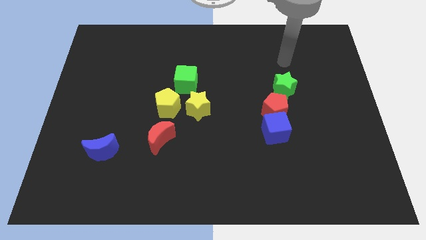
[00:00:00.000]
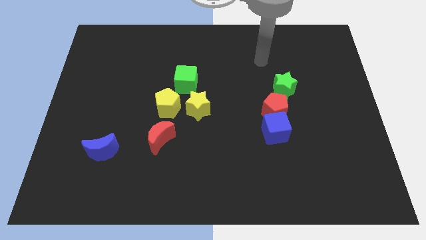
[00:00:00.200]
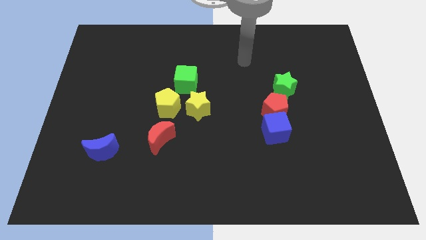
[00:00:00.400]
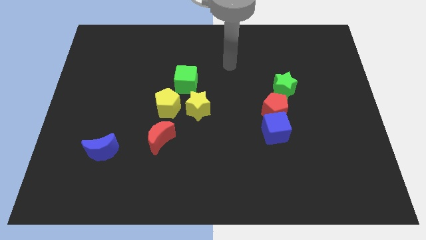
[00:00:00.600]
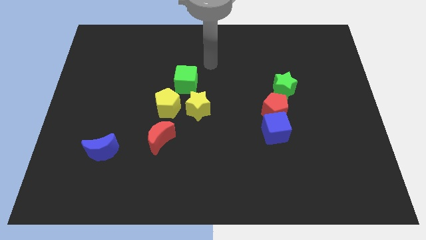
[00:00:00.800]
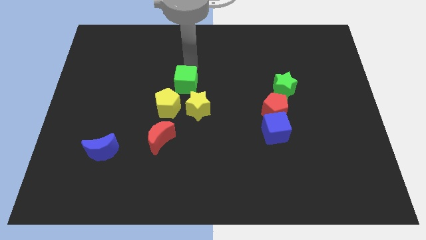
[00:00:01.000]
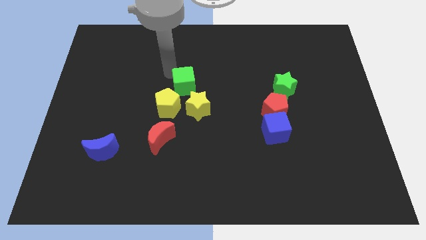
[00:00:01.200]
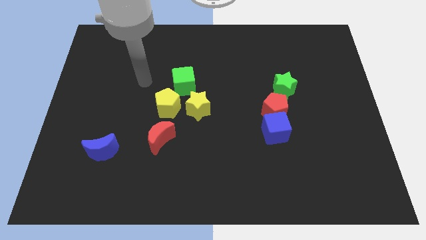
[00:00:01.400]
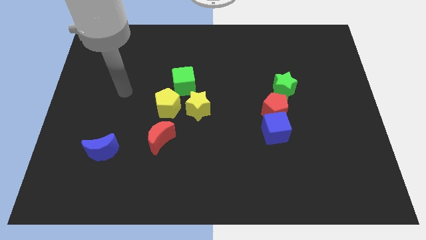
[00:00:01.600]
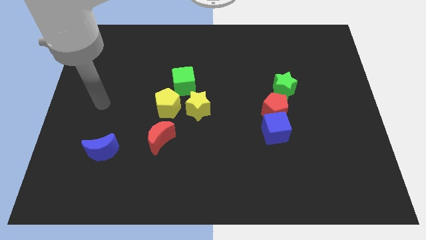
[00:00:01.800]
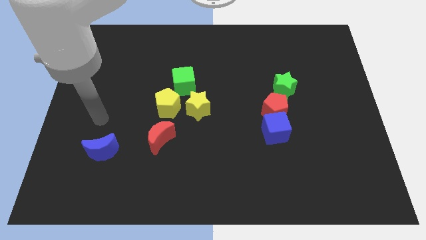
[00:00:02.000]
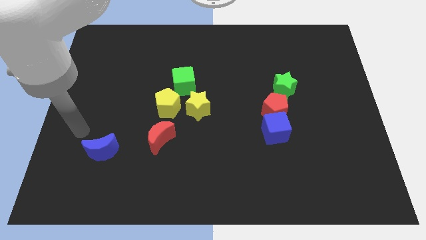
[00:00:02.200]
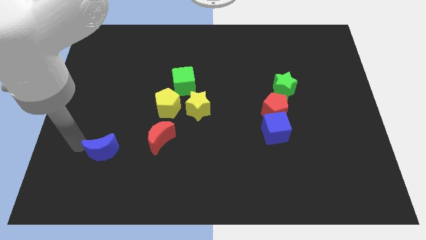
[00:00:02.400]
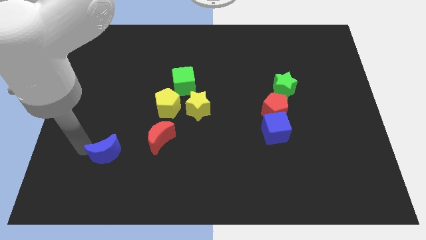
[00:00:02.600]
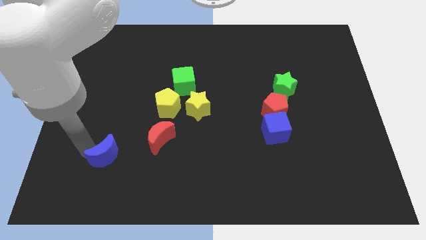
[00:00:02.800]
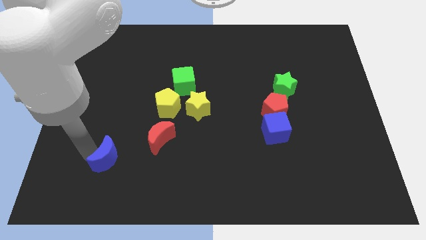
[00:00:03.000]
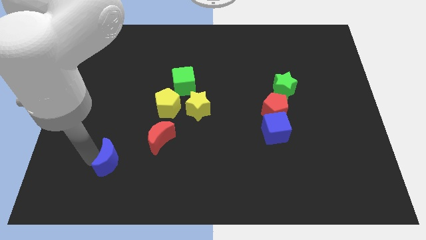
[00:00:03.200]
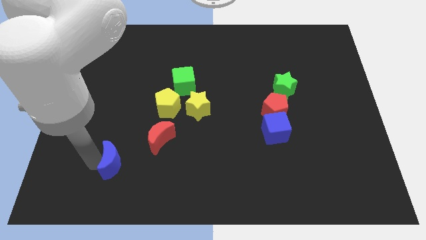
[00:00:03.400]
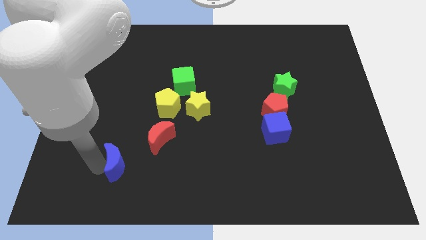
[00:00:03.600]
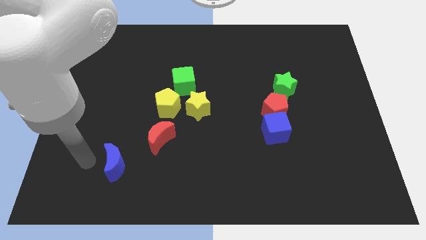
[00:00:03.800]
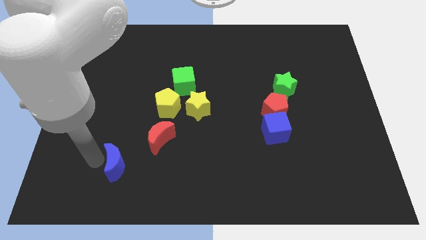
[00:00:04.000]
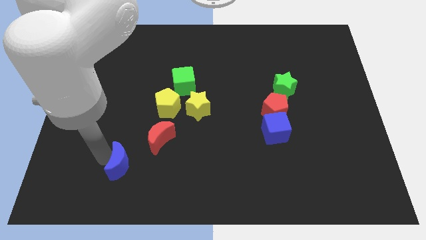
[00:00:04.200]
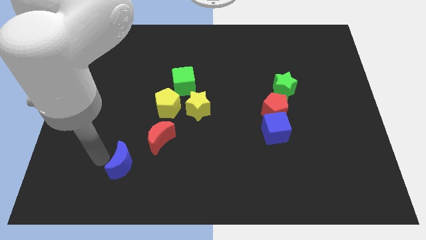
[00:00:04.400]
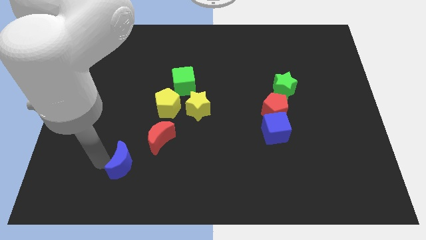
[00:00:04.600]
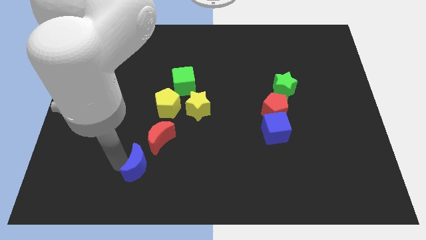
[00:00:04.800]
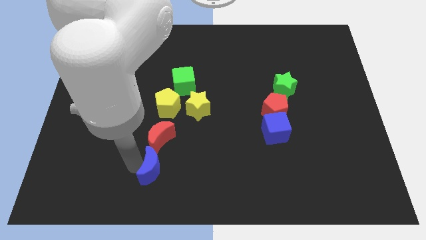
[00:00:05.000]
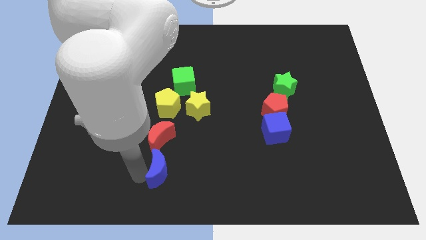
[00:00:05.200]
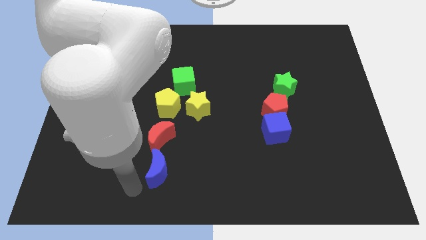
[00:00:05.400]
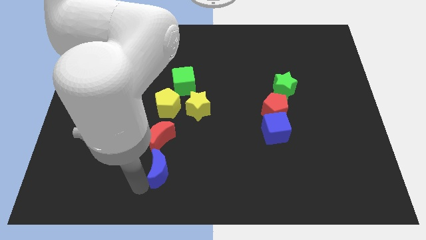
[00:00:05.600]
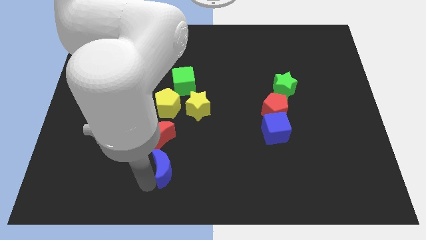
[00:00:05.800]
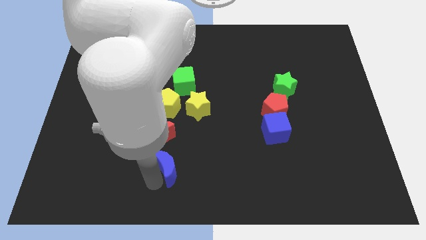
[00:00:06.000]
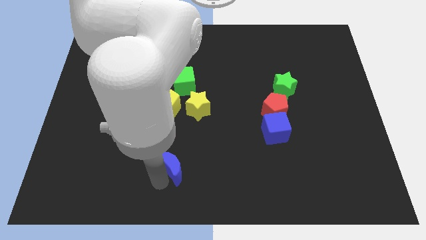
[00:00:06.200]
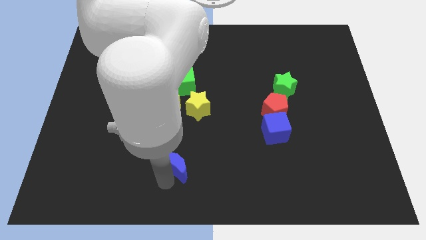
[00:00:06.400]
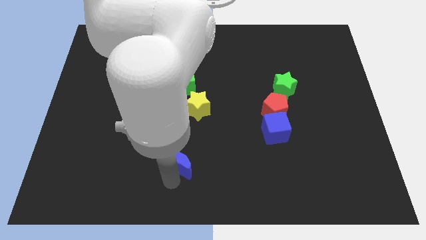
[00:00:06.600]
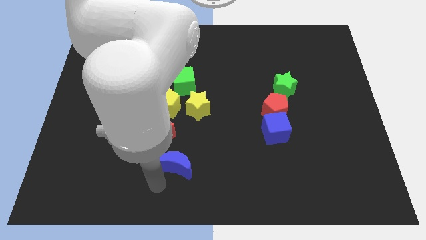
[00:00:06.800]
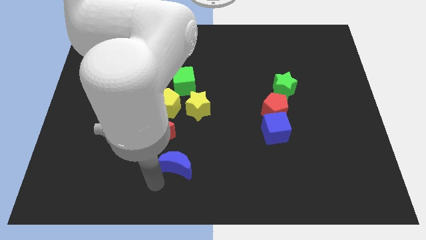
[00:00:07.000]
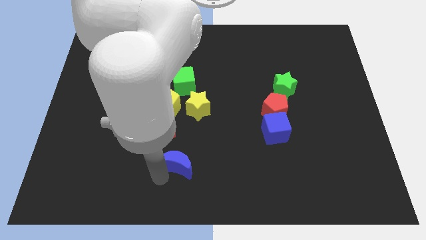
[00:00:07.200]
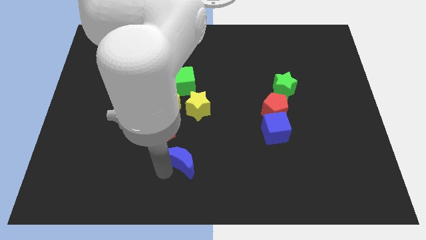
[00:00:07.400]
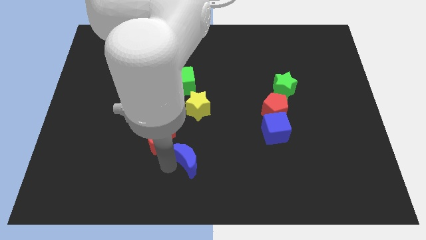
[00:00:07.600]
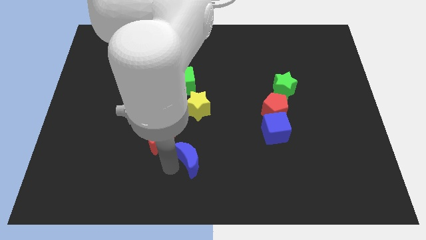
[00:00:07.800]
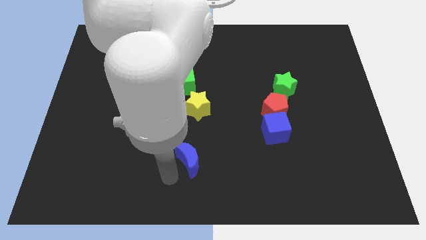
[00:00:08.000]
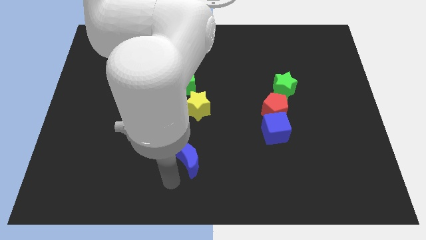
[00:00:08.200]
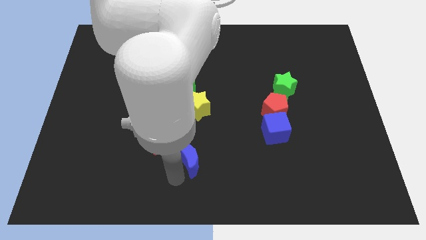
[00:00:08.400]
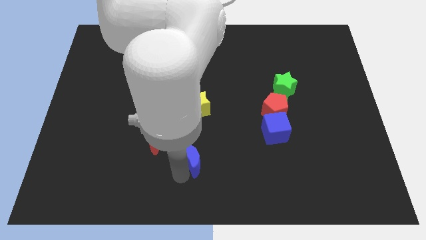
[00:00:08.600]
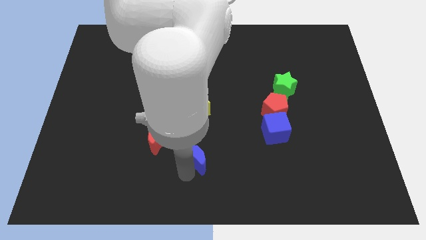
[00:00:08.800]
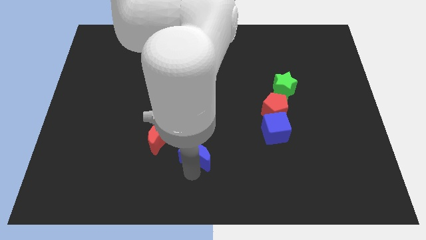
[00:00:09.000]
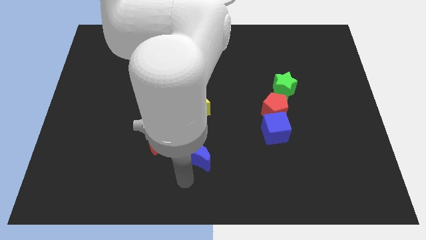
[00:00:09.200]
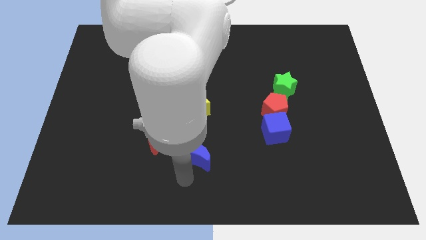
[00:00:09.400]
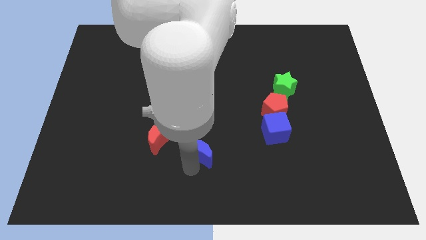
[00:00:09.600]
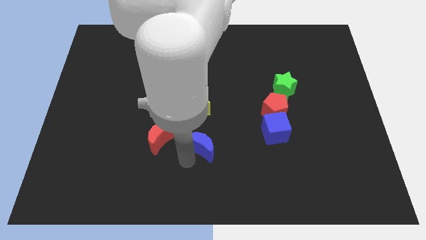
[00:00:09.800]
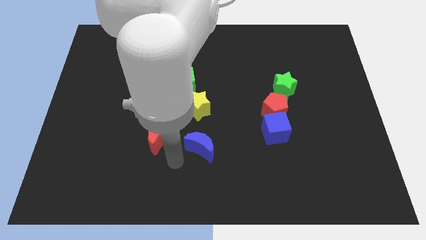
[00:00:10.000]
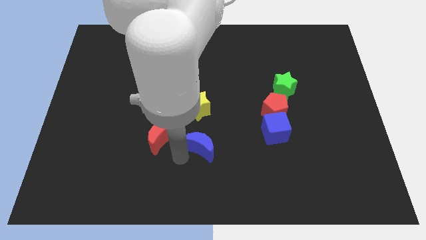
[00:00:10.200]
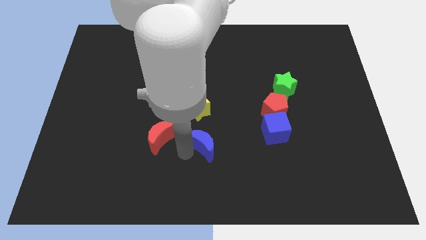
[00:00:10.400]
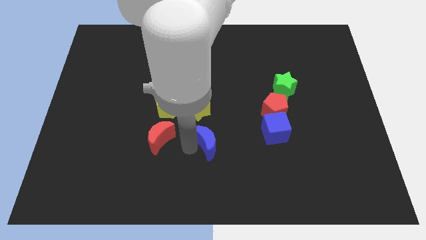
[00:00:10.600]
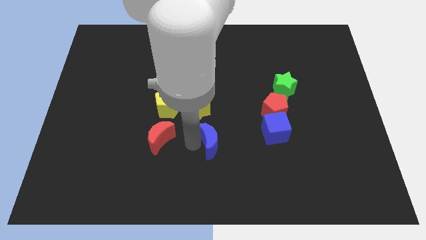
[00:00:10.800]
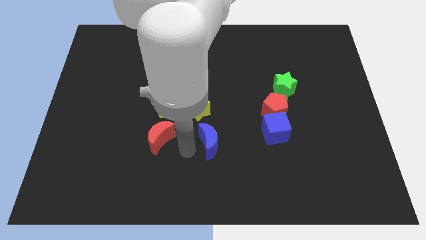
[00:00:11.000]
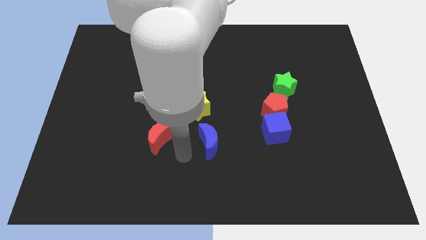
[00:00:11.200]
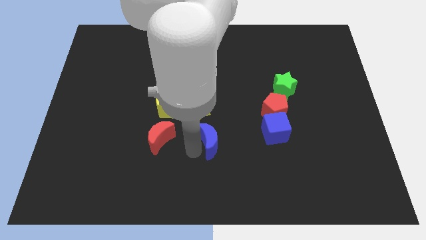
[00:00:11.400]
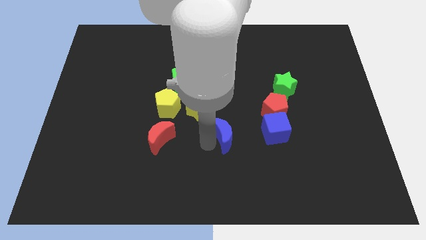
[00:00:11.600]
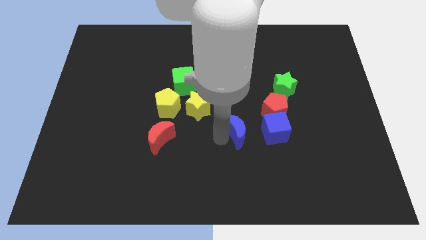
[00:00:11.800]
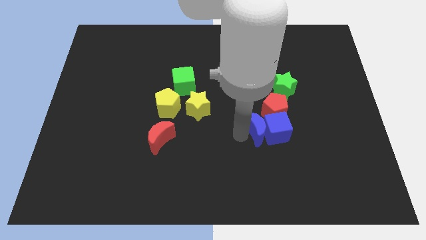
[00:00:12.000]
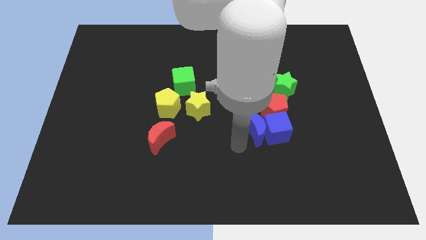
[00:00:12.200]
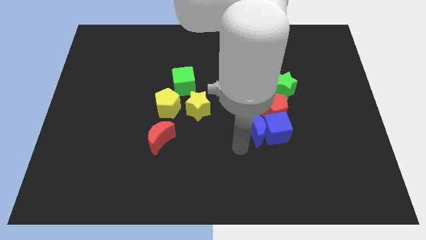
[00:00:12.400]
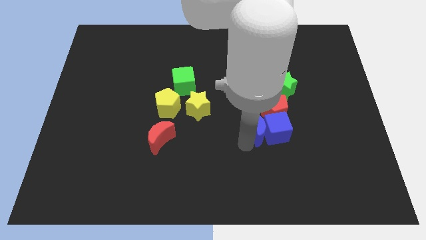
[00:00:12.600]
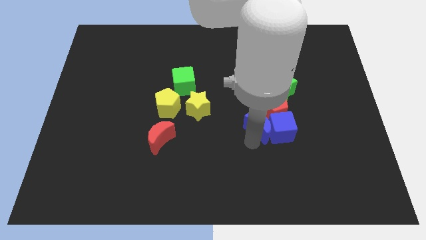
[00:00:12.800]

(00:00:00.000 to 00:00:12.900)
move the blue moon next to the red pentagon

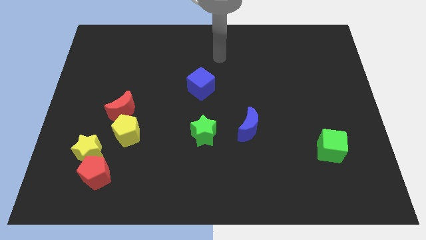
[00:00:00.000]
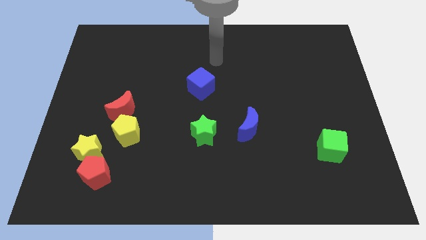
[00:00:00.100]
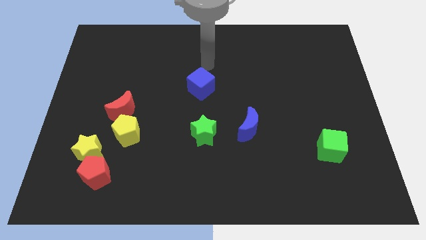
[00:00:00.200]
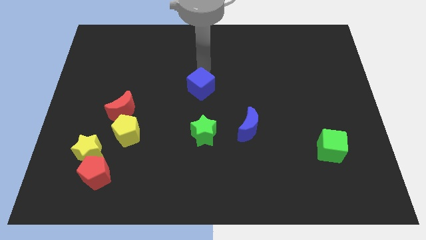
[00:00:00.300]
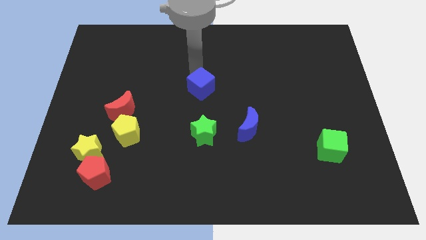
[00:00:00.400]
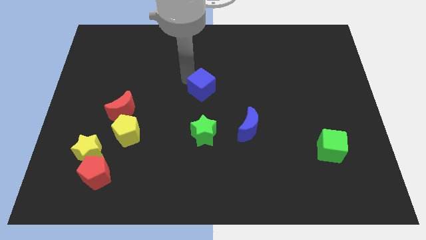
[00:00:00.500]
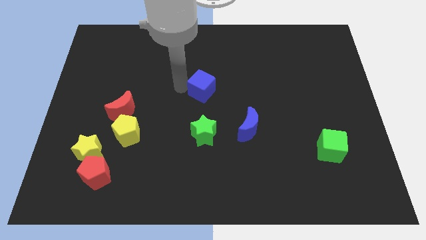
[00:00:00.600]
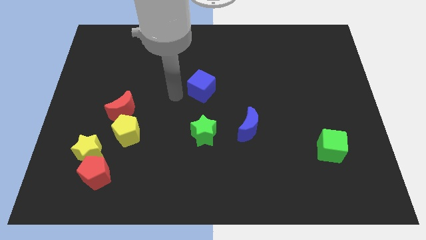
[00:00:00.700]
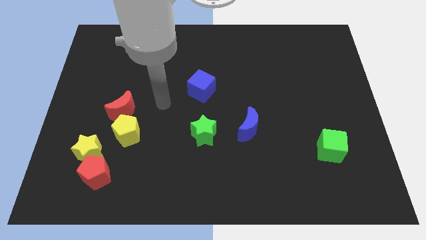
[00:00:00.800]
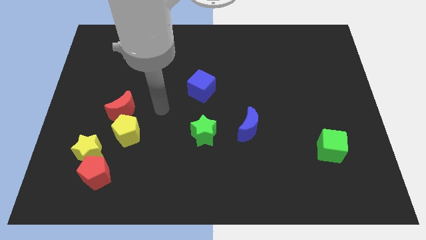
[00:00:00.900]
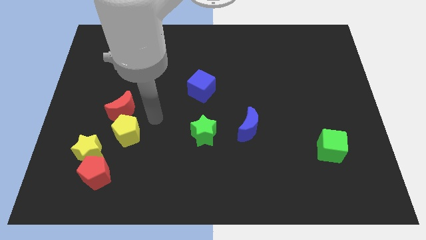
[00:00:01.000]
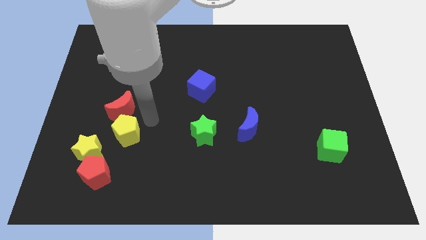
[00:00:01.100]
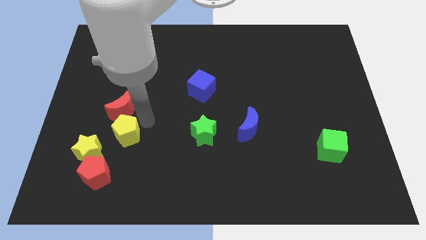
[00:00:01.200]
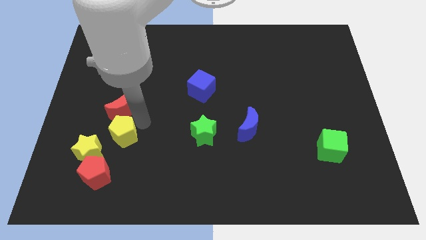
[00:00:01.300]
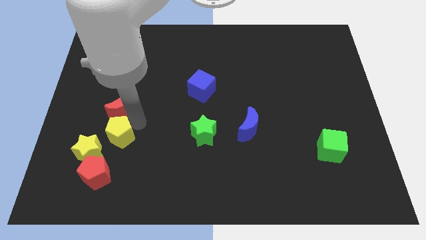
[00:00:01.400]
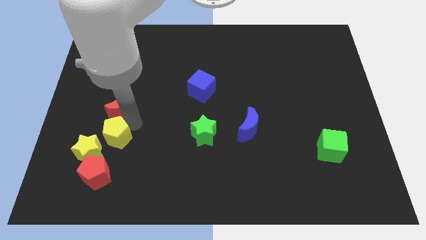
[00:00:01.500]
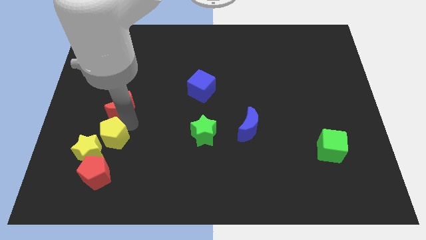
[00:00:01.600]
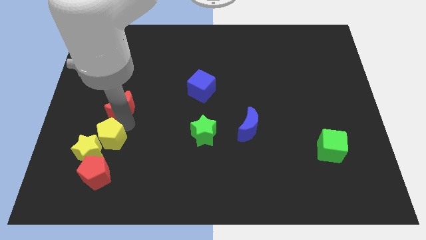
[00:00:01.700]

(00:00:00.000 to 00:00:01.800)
push the yellow pentagon next to the yellow star
